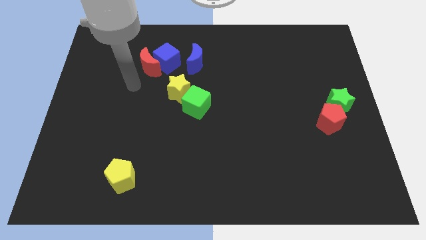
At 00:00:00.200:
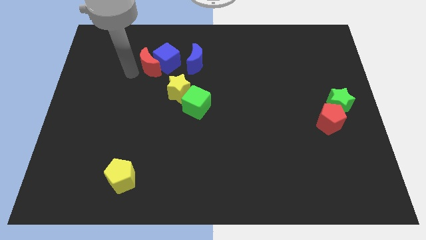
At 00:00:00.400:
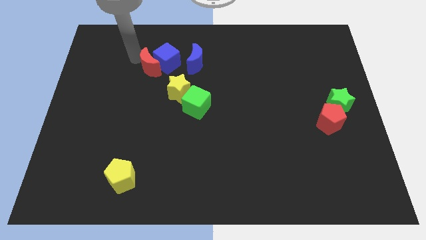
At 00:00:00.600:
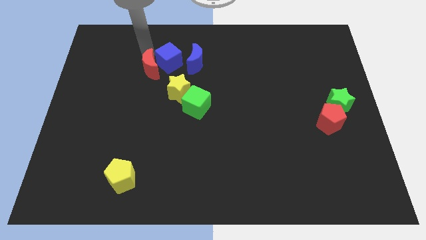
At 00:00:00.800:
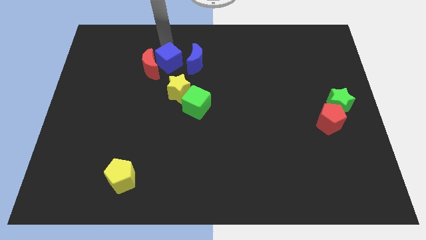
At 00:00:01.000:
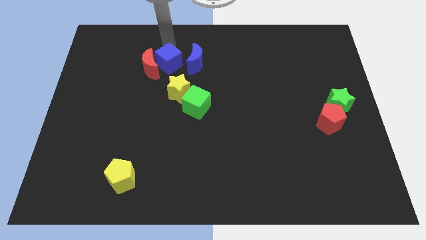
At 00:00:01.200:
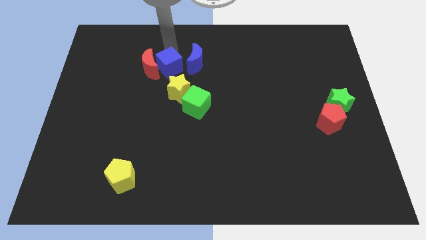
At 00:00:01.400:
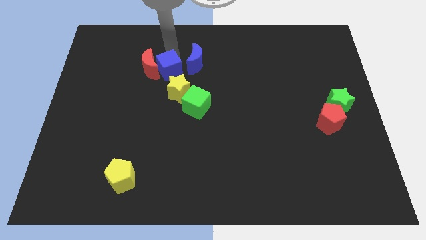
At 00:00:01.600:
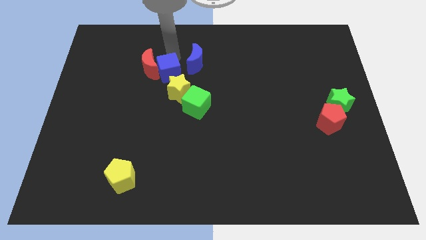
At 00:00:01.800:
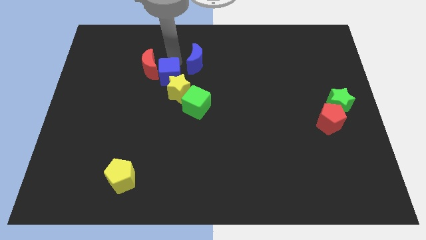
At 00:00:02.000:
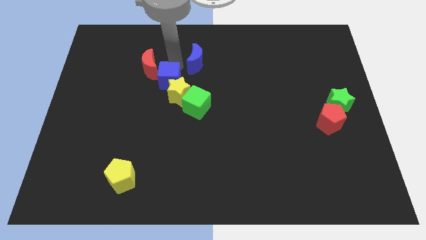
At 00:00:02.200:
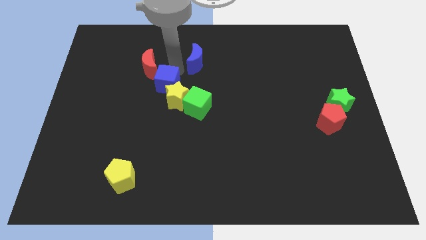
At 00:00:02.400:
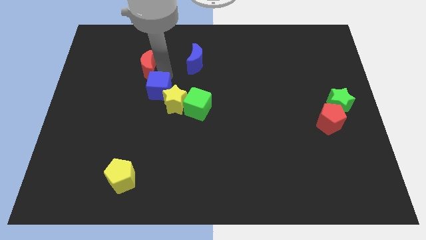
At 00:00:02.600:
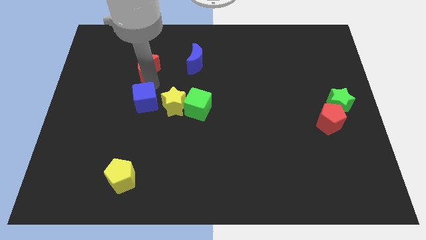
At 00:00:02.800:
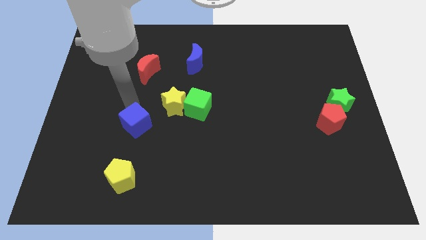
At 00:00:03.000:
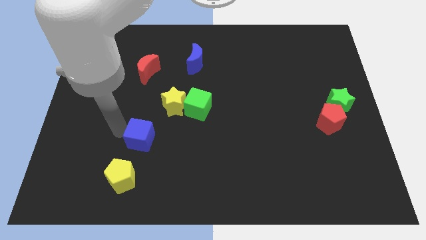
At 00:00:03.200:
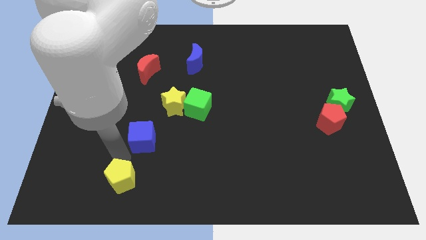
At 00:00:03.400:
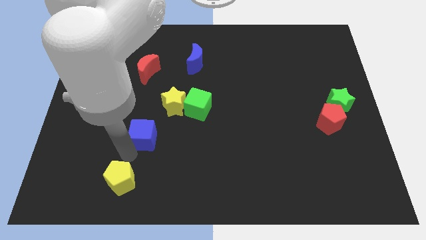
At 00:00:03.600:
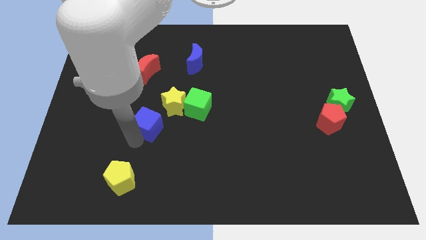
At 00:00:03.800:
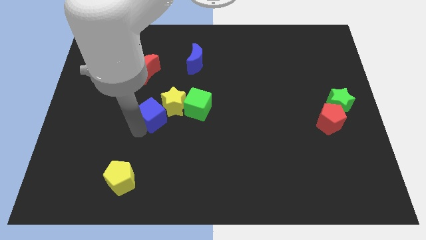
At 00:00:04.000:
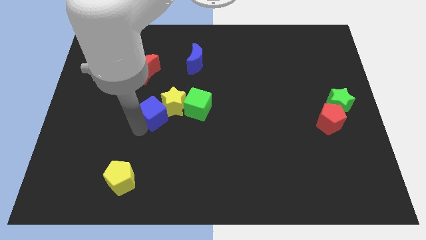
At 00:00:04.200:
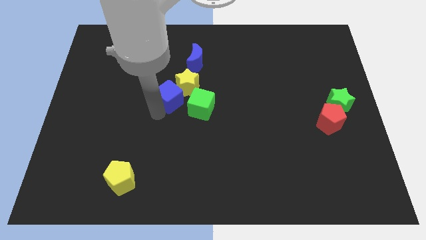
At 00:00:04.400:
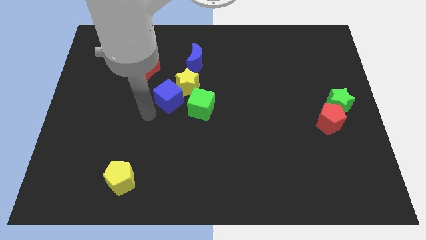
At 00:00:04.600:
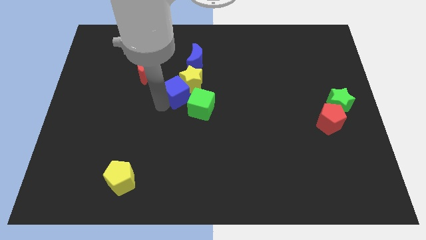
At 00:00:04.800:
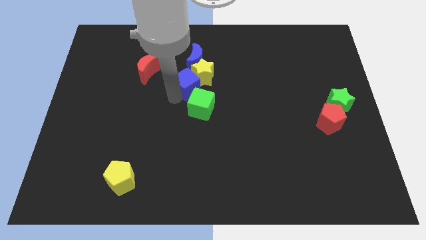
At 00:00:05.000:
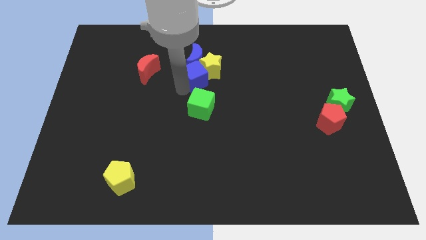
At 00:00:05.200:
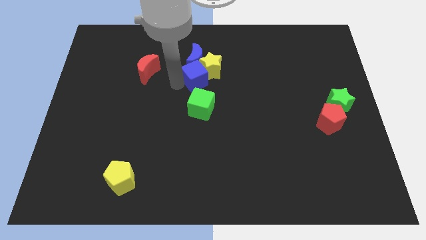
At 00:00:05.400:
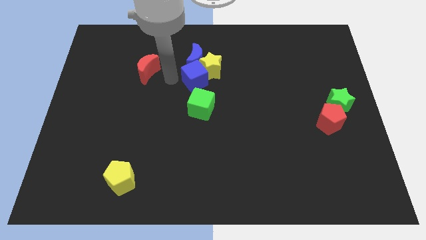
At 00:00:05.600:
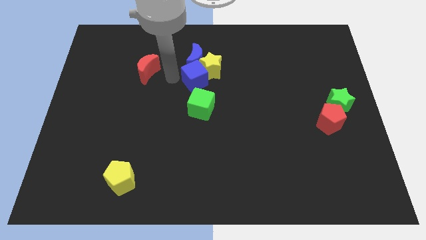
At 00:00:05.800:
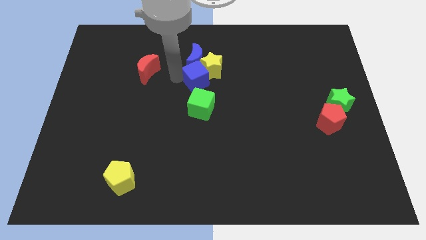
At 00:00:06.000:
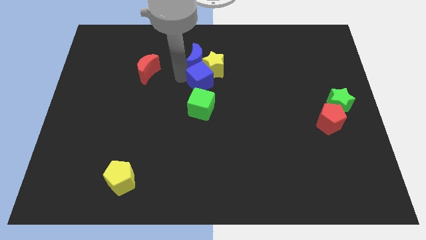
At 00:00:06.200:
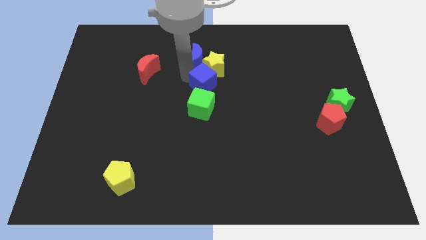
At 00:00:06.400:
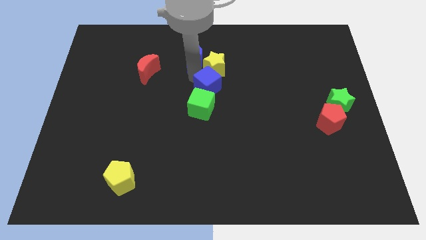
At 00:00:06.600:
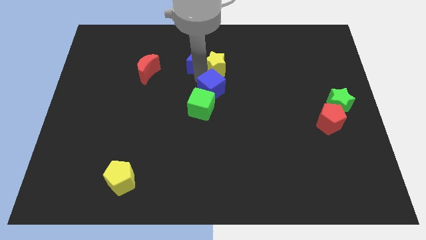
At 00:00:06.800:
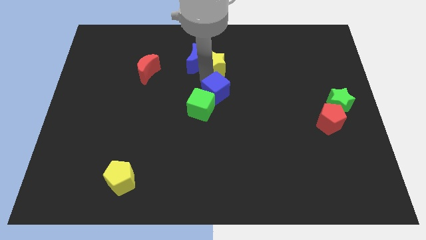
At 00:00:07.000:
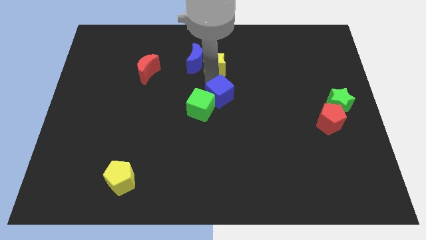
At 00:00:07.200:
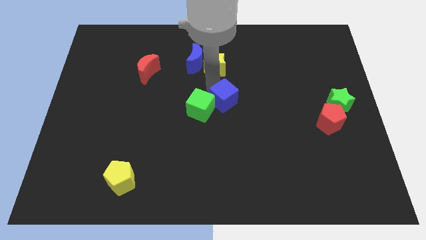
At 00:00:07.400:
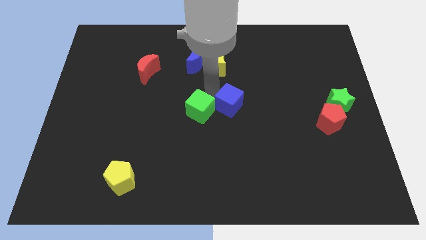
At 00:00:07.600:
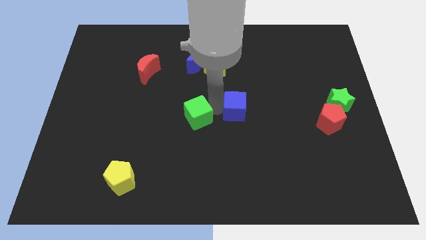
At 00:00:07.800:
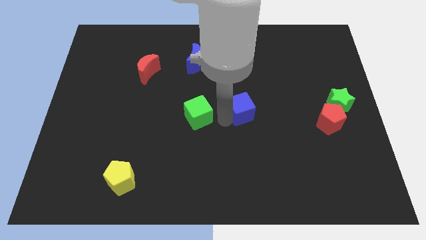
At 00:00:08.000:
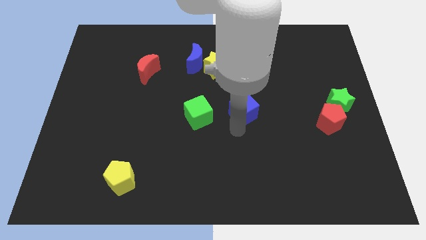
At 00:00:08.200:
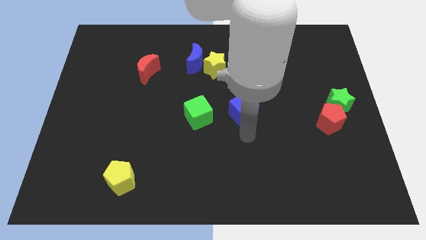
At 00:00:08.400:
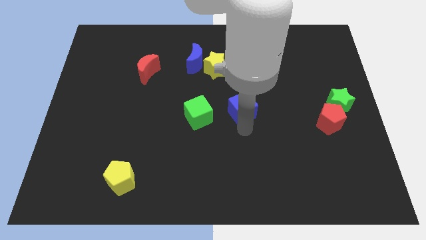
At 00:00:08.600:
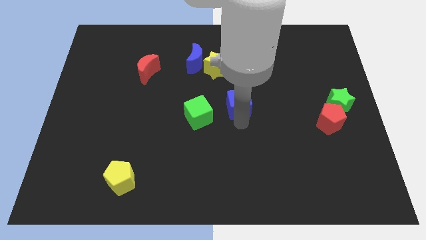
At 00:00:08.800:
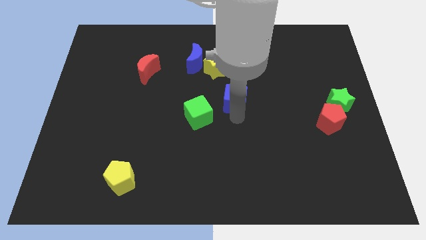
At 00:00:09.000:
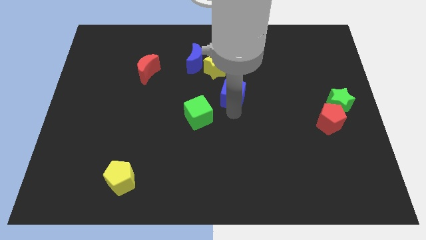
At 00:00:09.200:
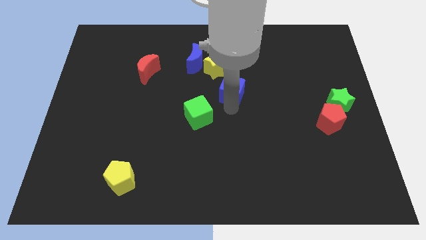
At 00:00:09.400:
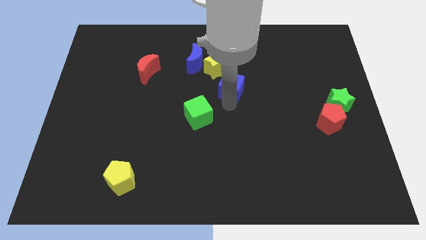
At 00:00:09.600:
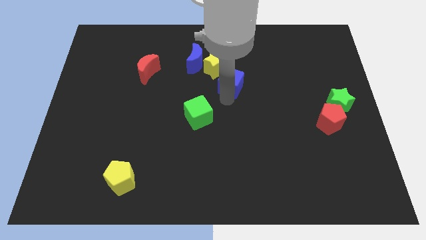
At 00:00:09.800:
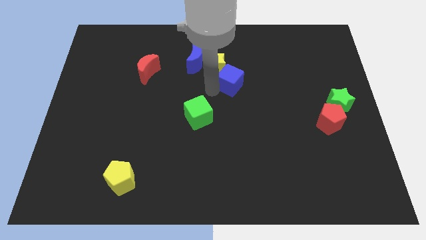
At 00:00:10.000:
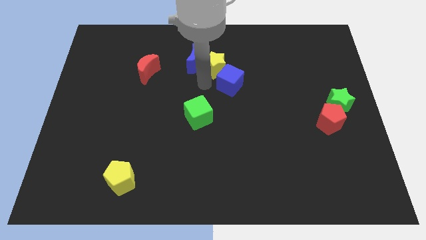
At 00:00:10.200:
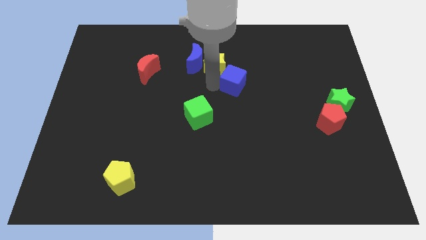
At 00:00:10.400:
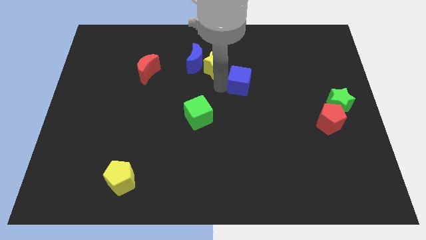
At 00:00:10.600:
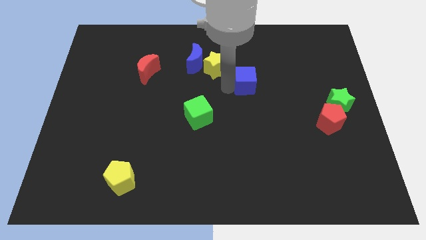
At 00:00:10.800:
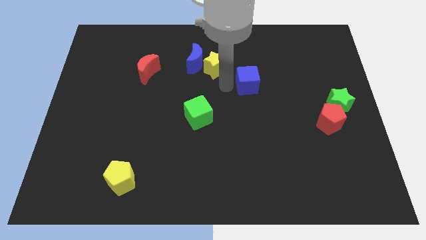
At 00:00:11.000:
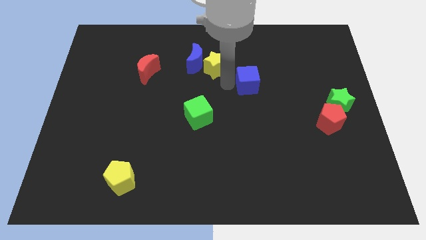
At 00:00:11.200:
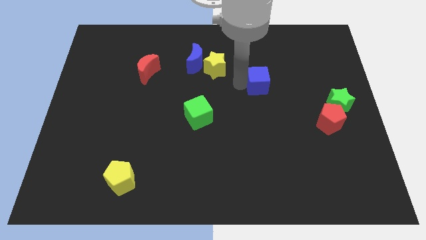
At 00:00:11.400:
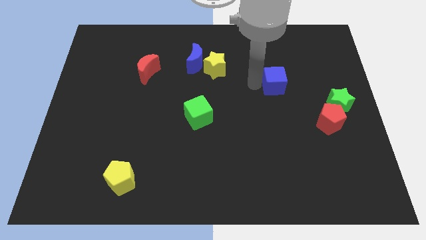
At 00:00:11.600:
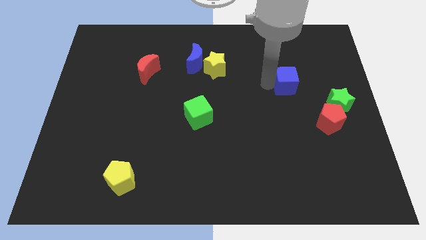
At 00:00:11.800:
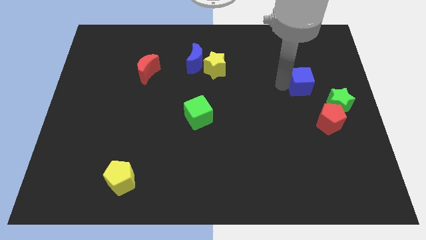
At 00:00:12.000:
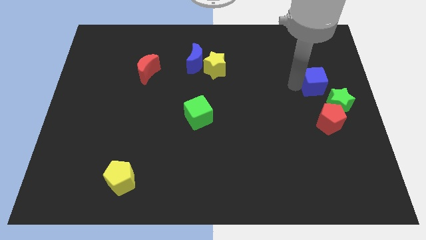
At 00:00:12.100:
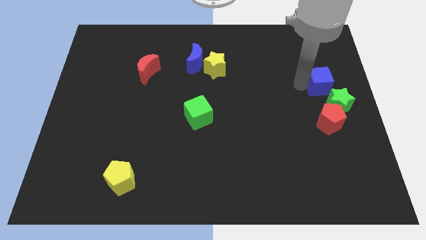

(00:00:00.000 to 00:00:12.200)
move the blue cube to the right side of the board

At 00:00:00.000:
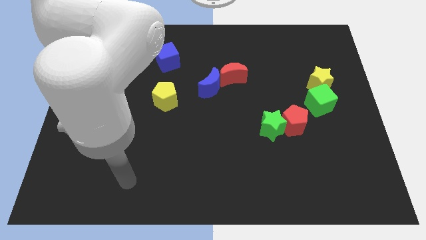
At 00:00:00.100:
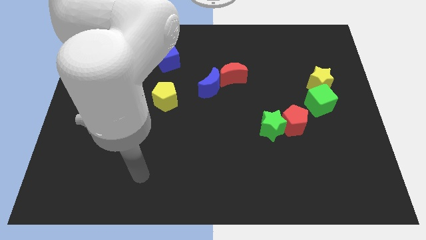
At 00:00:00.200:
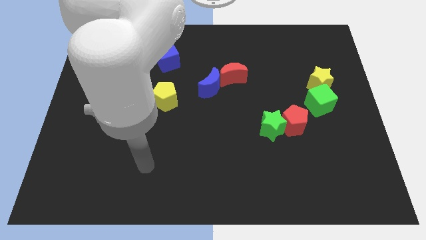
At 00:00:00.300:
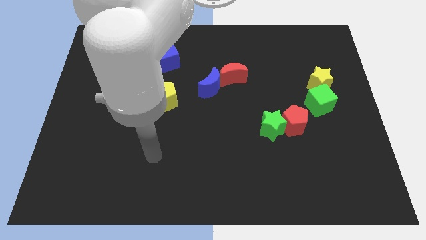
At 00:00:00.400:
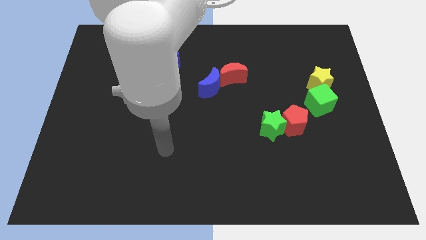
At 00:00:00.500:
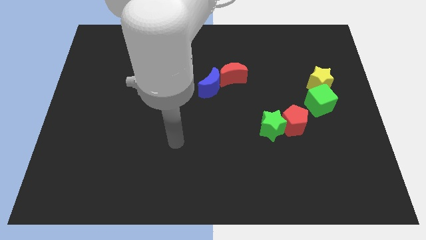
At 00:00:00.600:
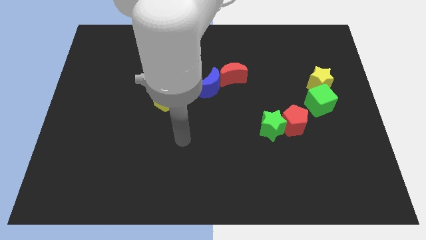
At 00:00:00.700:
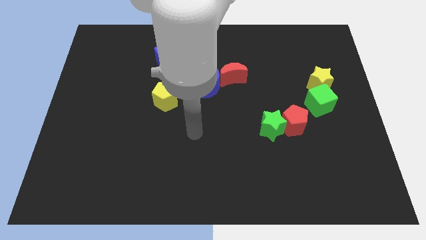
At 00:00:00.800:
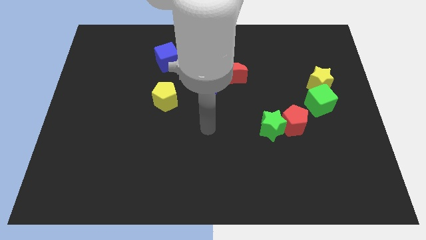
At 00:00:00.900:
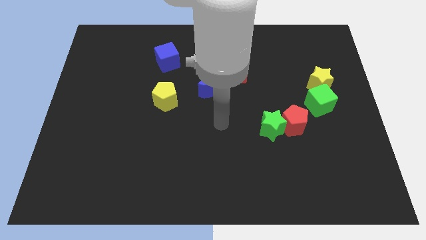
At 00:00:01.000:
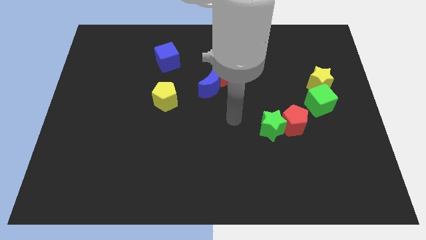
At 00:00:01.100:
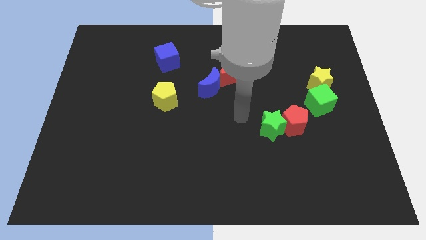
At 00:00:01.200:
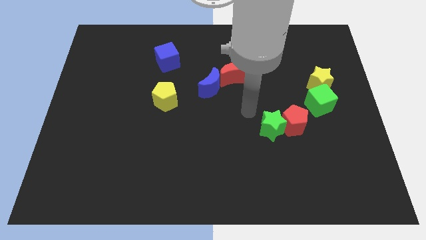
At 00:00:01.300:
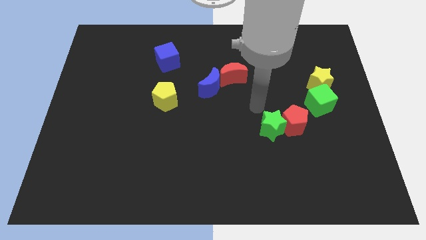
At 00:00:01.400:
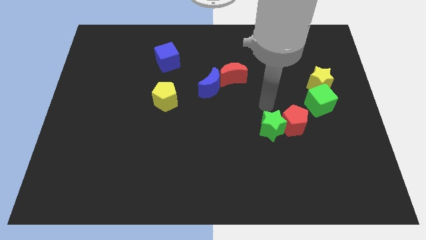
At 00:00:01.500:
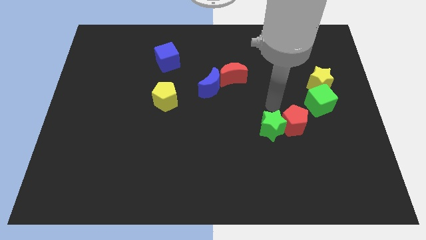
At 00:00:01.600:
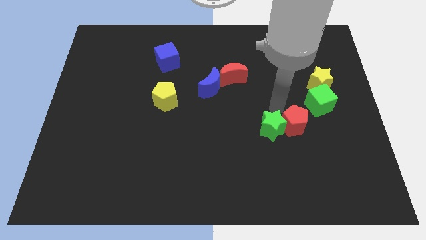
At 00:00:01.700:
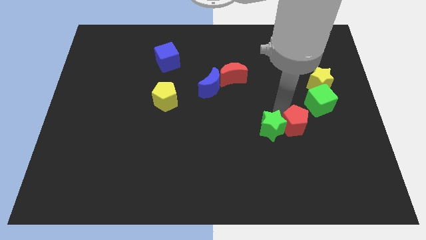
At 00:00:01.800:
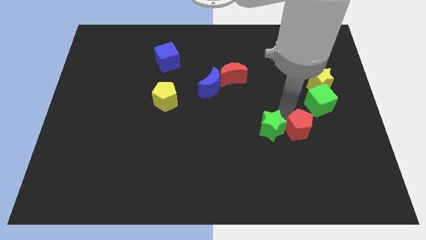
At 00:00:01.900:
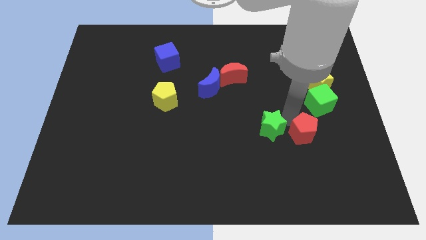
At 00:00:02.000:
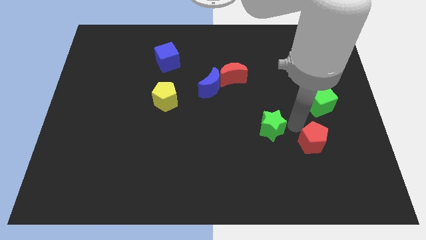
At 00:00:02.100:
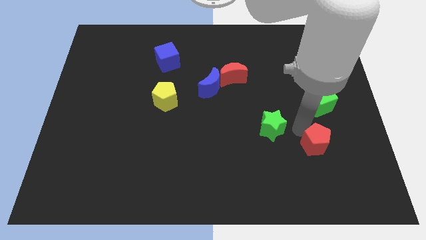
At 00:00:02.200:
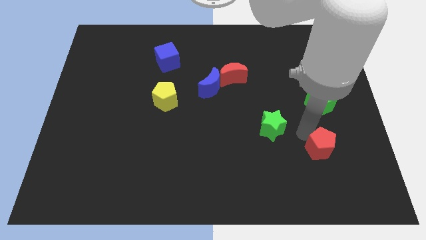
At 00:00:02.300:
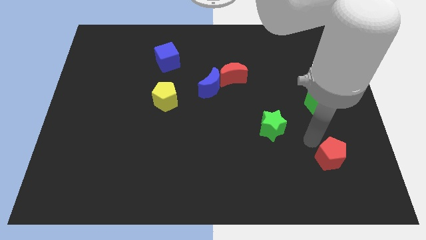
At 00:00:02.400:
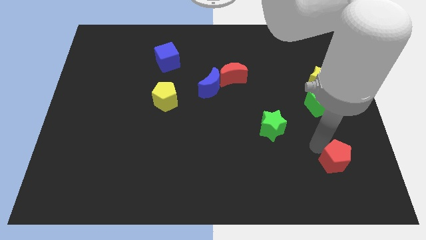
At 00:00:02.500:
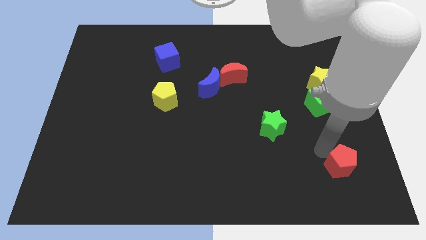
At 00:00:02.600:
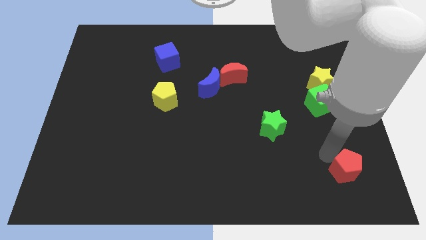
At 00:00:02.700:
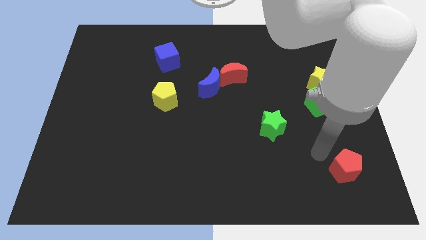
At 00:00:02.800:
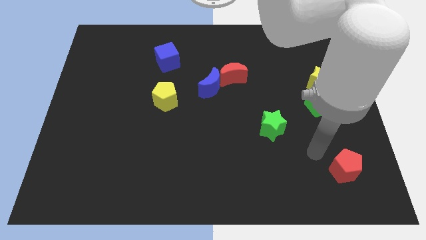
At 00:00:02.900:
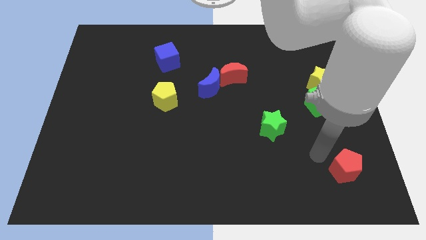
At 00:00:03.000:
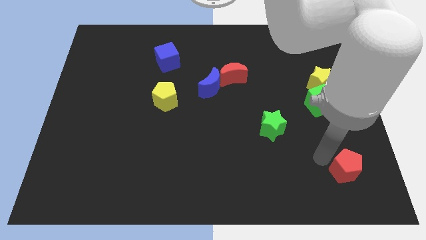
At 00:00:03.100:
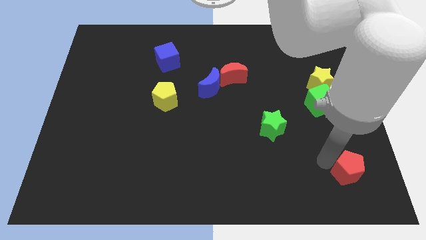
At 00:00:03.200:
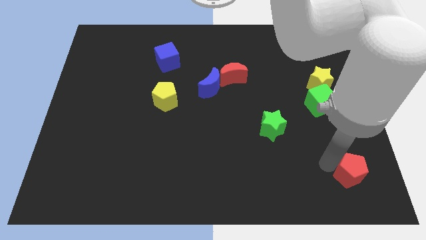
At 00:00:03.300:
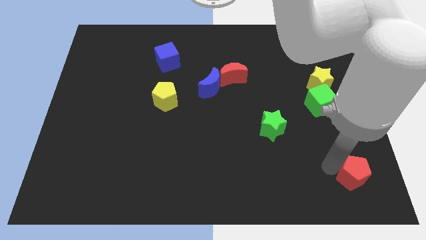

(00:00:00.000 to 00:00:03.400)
move the red pentagon to the bottom right of the board
